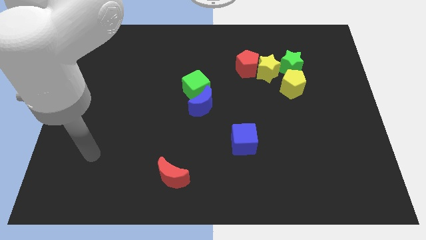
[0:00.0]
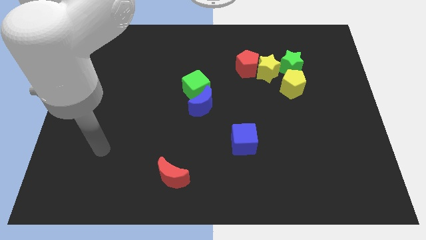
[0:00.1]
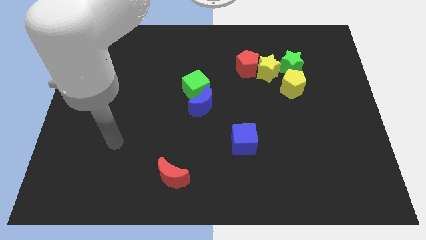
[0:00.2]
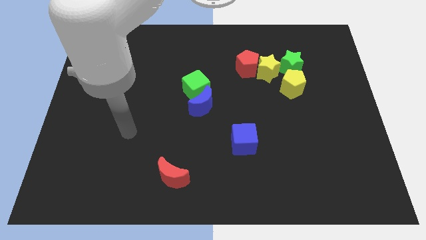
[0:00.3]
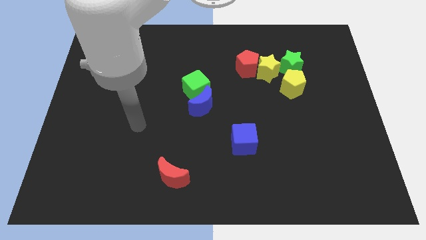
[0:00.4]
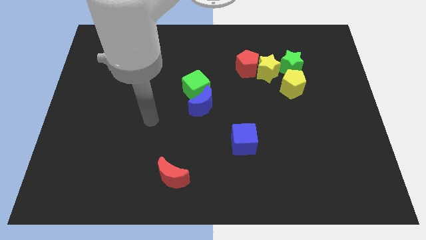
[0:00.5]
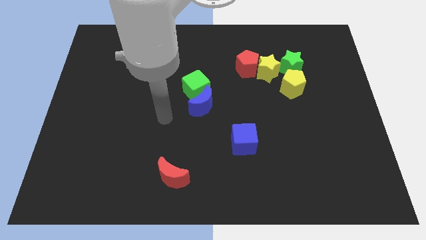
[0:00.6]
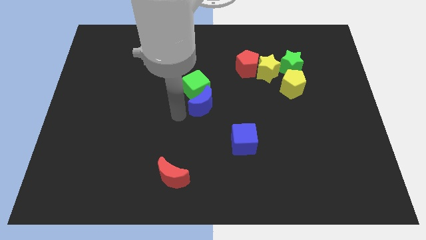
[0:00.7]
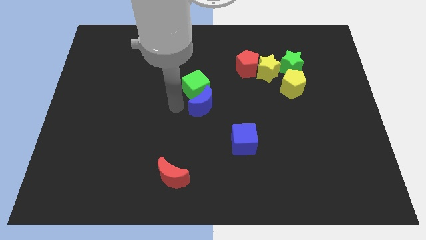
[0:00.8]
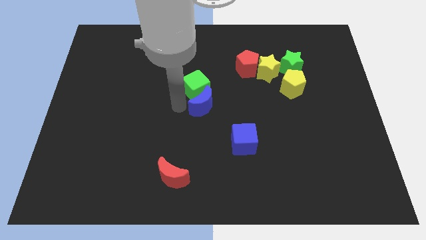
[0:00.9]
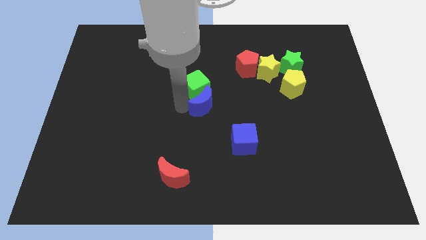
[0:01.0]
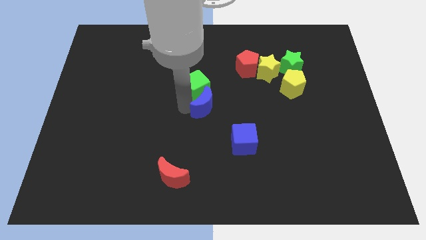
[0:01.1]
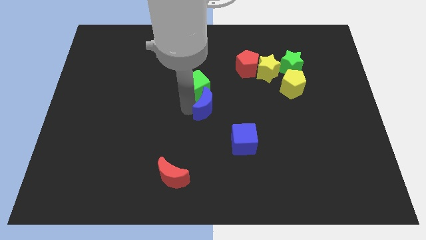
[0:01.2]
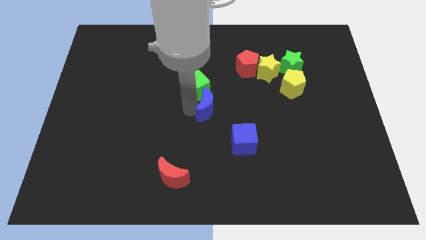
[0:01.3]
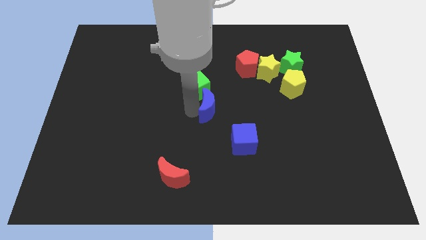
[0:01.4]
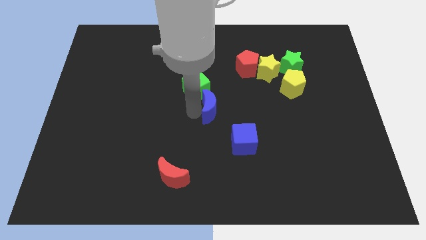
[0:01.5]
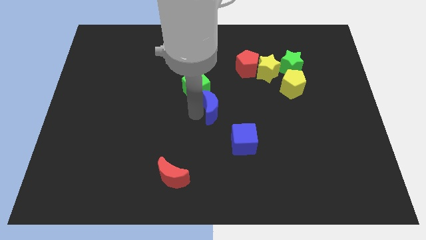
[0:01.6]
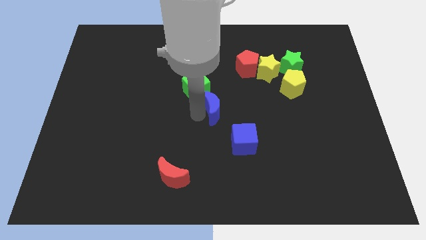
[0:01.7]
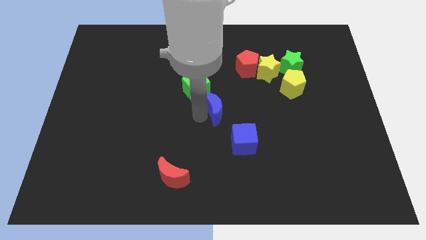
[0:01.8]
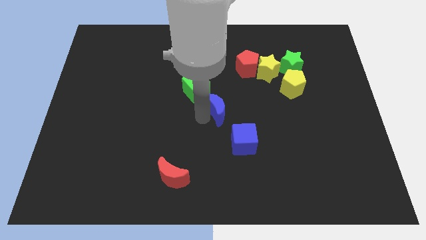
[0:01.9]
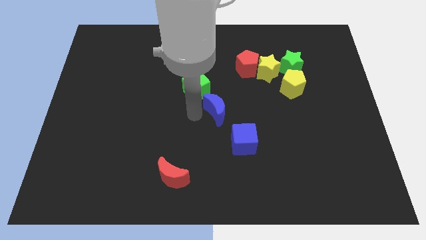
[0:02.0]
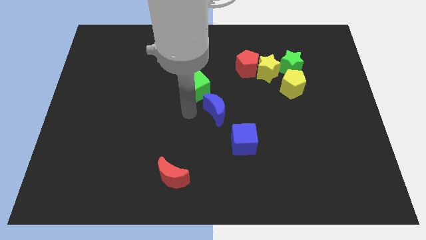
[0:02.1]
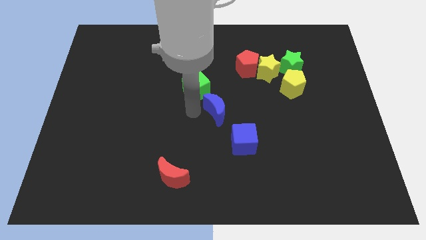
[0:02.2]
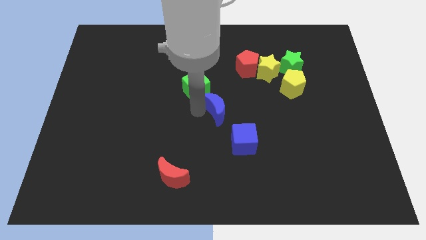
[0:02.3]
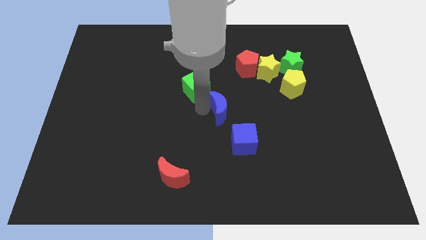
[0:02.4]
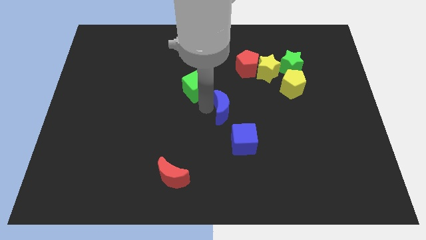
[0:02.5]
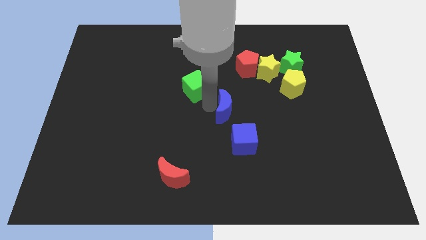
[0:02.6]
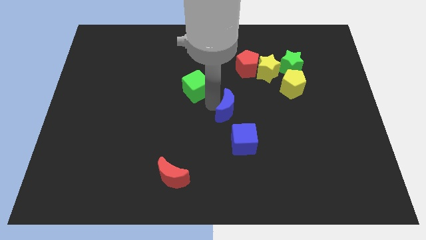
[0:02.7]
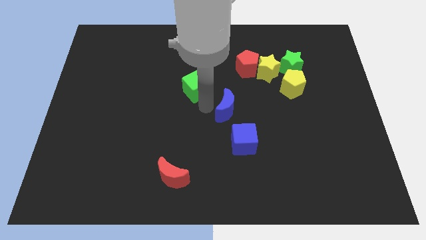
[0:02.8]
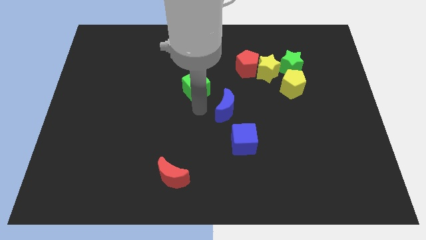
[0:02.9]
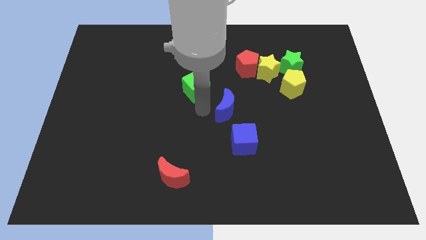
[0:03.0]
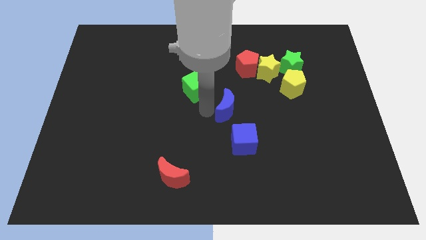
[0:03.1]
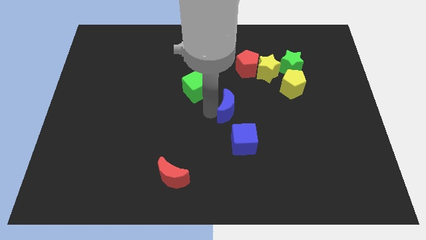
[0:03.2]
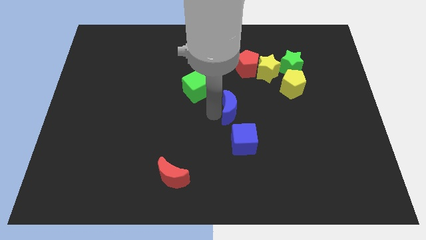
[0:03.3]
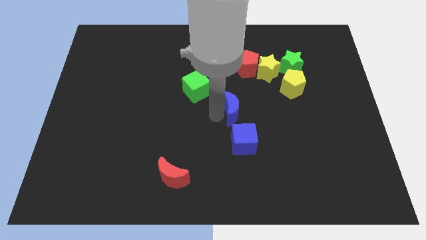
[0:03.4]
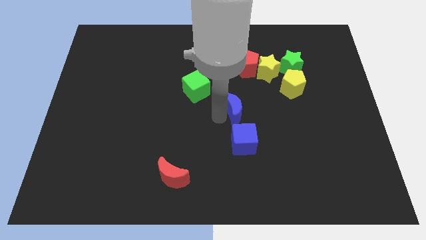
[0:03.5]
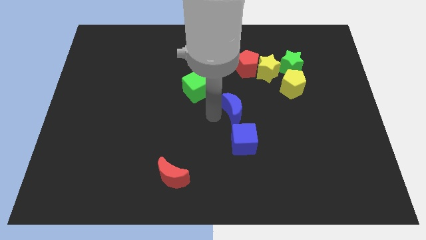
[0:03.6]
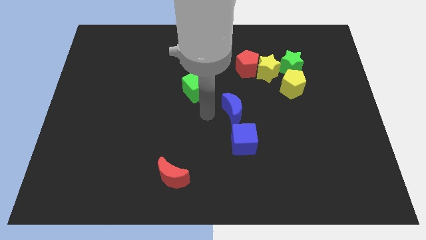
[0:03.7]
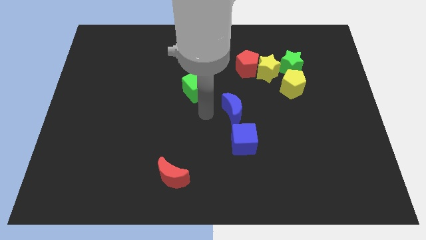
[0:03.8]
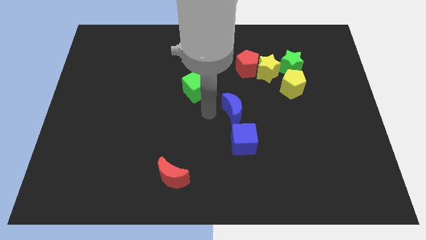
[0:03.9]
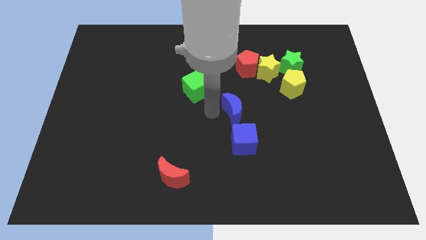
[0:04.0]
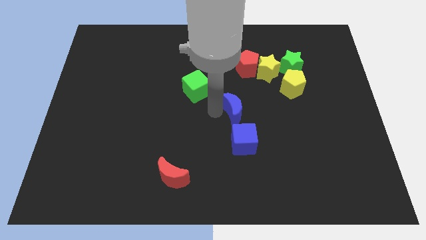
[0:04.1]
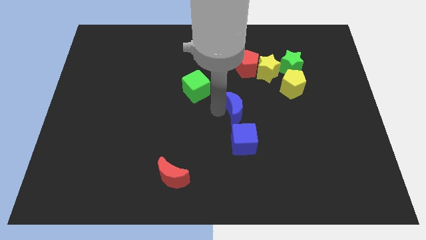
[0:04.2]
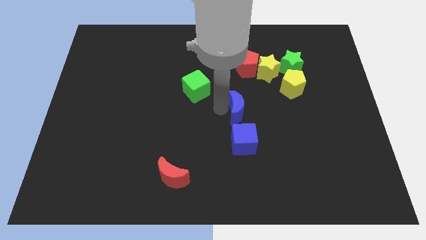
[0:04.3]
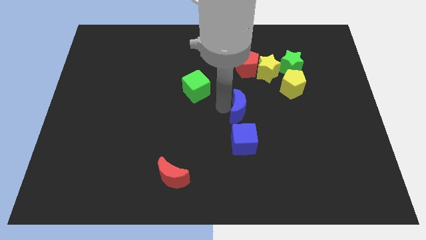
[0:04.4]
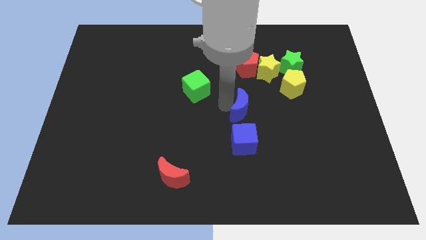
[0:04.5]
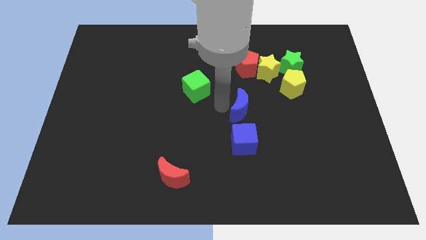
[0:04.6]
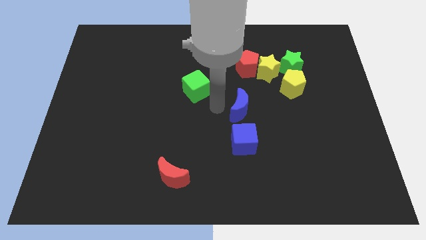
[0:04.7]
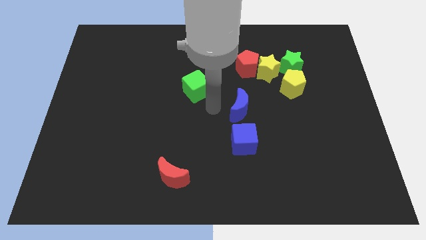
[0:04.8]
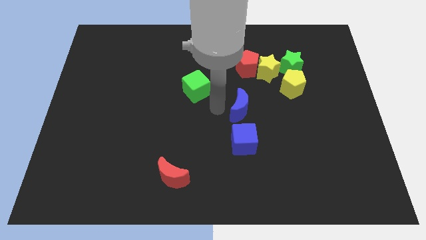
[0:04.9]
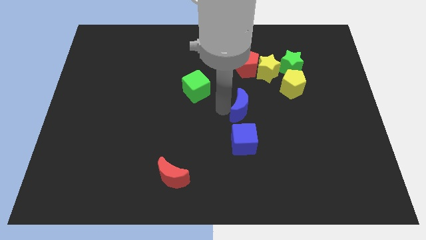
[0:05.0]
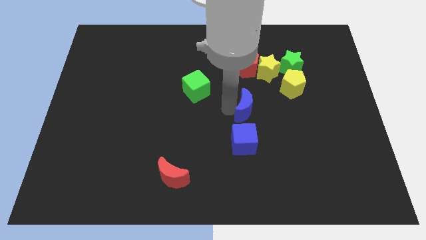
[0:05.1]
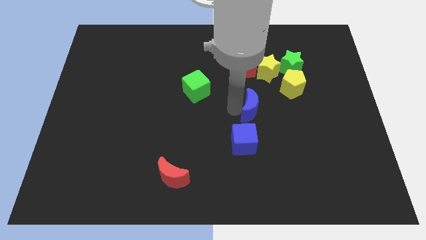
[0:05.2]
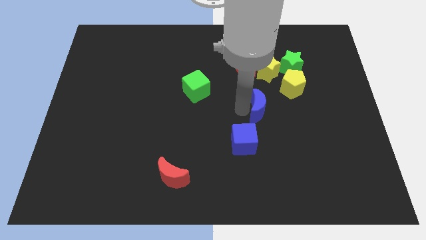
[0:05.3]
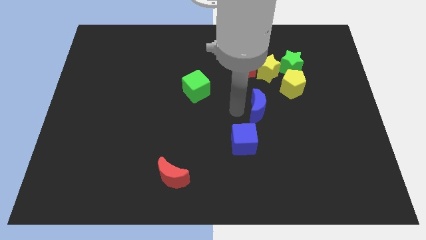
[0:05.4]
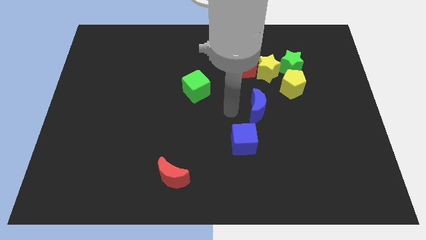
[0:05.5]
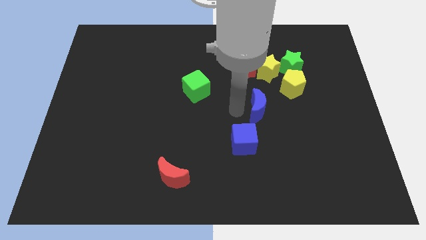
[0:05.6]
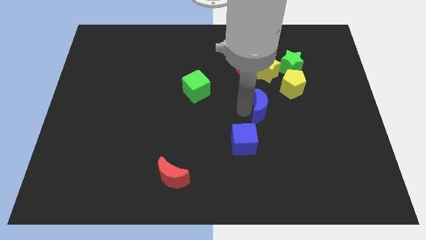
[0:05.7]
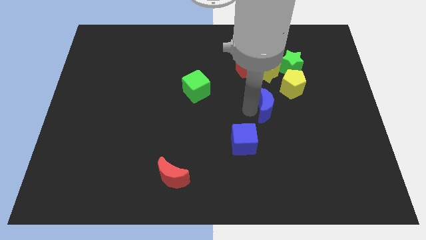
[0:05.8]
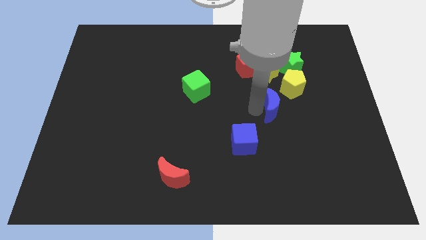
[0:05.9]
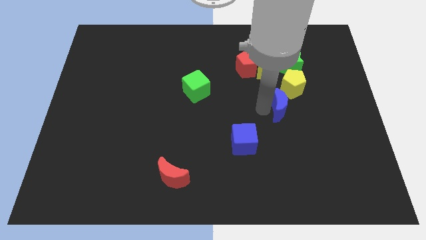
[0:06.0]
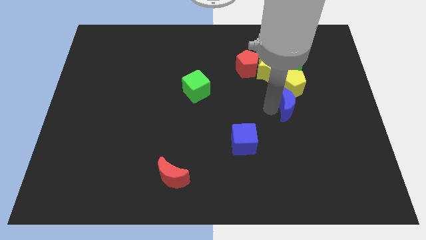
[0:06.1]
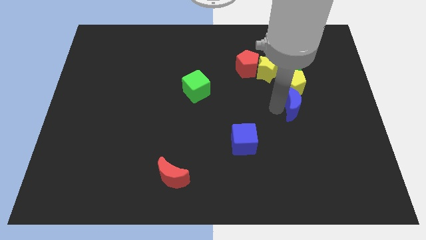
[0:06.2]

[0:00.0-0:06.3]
move the blue moon diagonally down and to the right of the yellow pentagon
